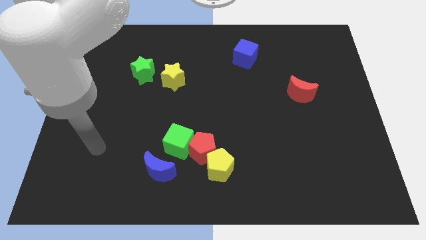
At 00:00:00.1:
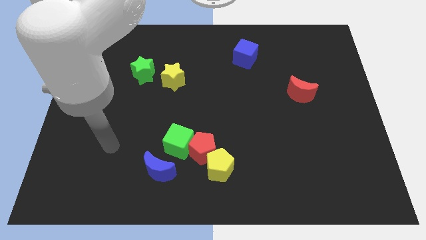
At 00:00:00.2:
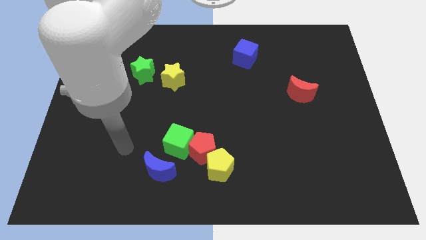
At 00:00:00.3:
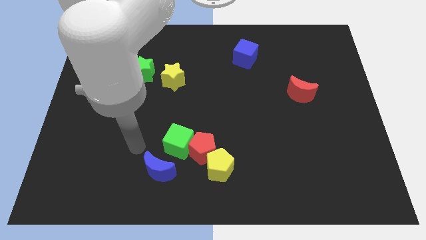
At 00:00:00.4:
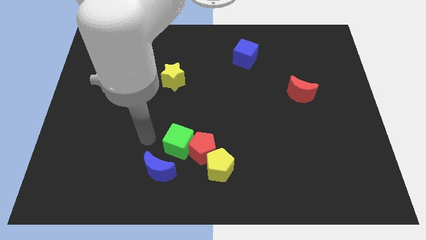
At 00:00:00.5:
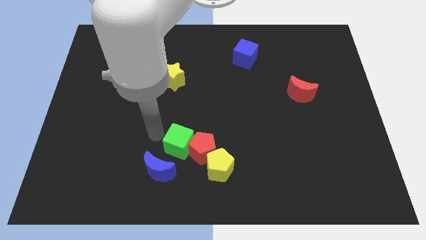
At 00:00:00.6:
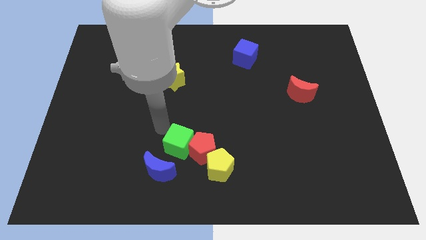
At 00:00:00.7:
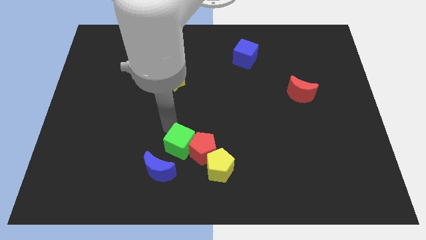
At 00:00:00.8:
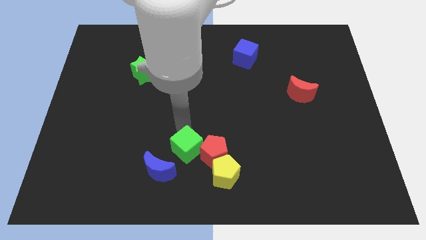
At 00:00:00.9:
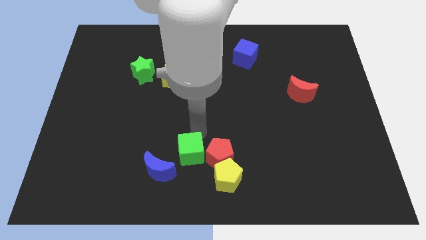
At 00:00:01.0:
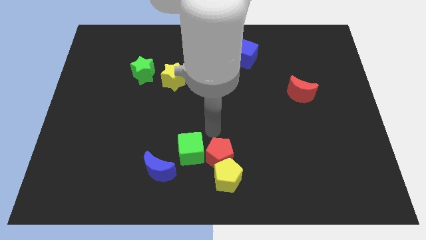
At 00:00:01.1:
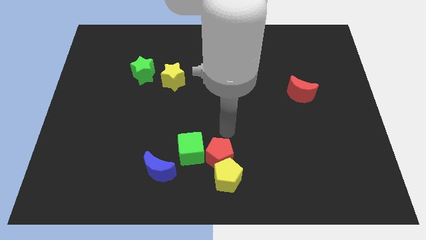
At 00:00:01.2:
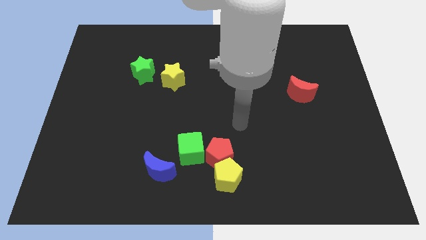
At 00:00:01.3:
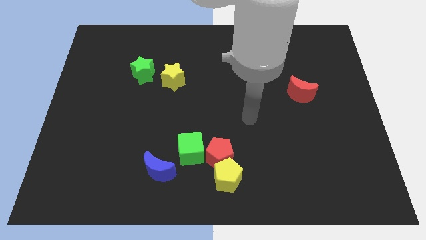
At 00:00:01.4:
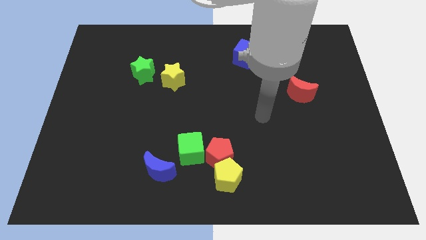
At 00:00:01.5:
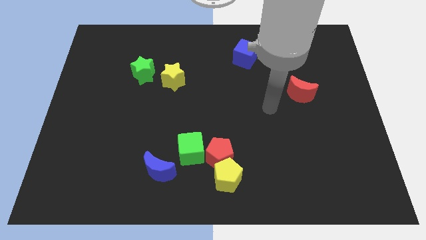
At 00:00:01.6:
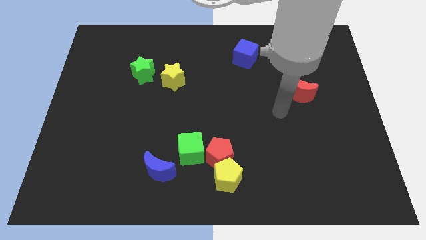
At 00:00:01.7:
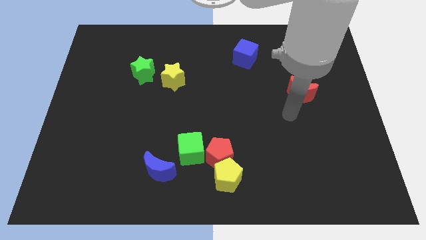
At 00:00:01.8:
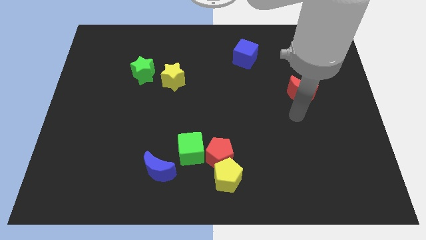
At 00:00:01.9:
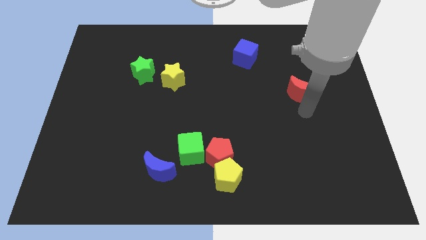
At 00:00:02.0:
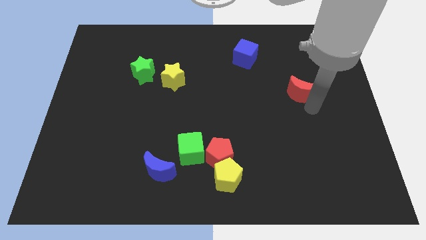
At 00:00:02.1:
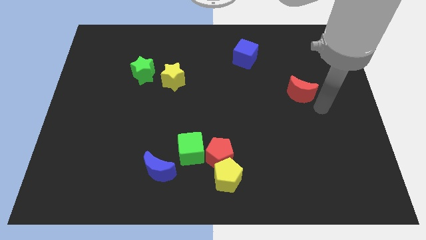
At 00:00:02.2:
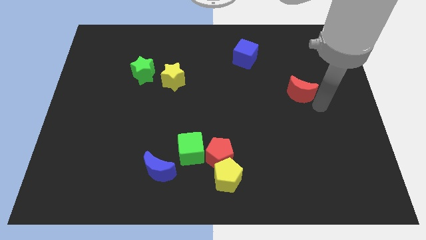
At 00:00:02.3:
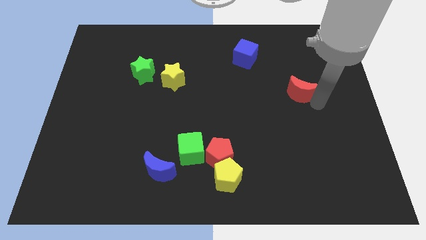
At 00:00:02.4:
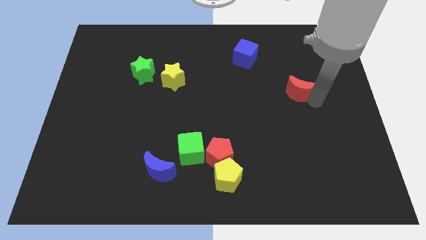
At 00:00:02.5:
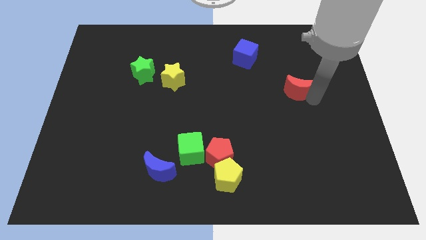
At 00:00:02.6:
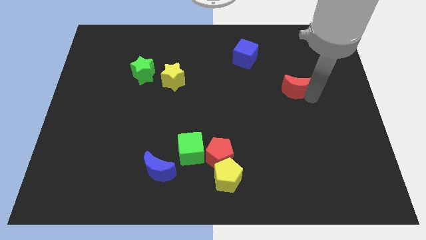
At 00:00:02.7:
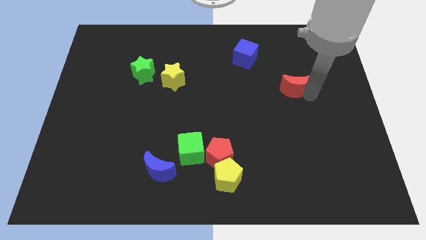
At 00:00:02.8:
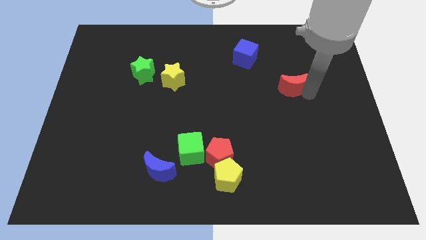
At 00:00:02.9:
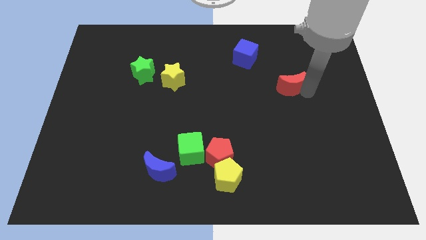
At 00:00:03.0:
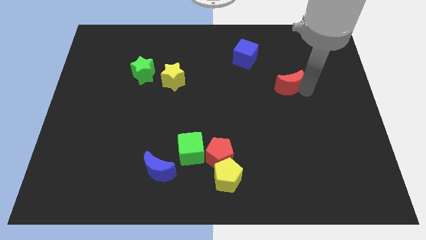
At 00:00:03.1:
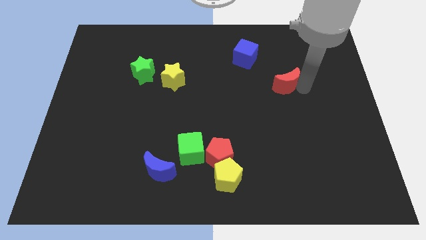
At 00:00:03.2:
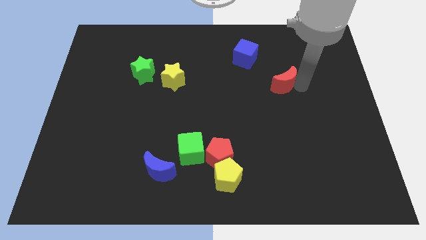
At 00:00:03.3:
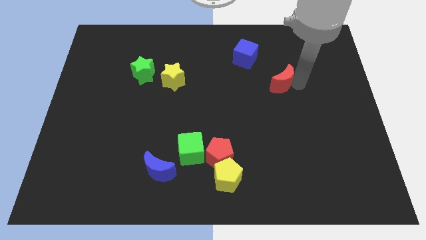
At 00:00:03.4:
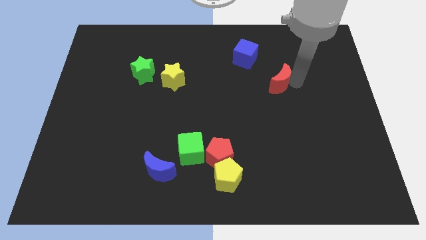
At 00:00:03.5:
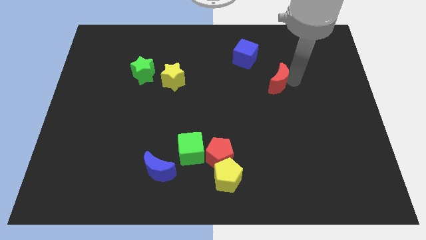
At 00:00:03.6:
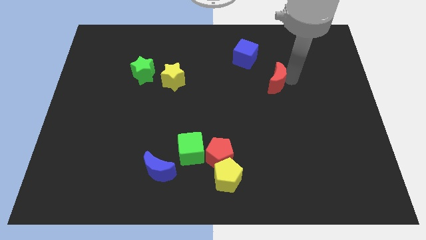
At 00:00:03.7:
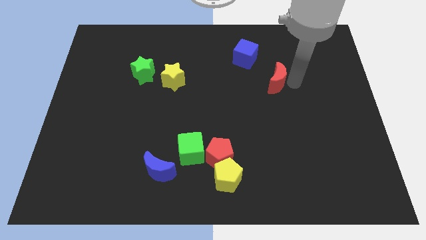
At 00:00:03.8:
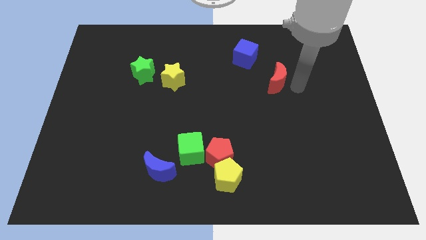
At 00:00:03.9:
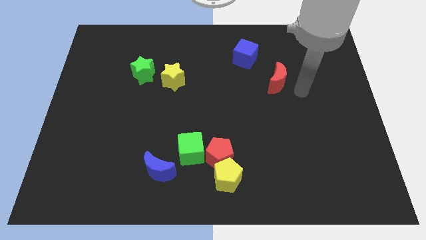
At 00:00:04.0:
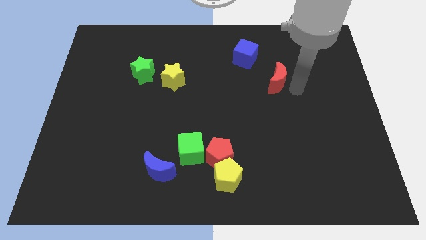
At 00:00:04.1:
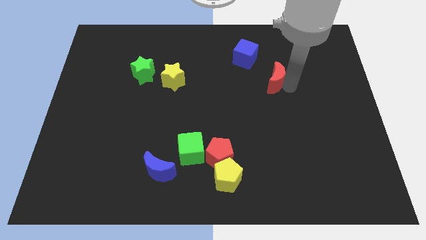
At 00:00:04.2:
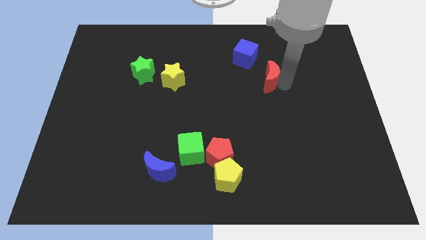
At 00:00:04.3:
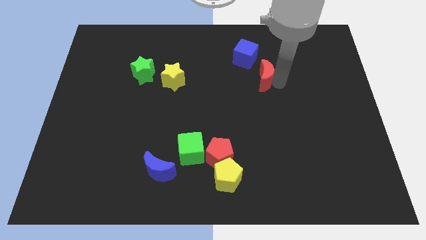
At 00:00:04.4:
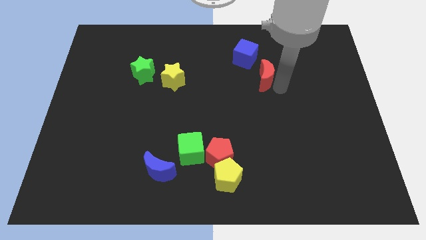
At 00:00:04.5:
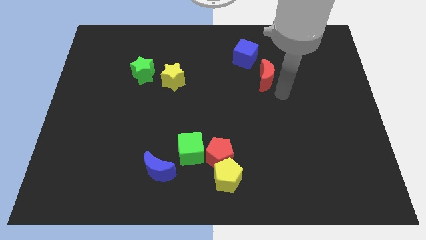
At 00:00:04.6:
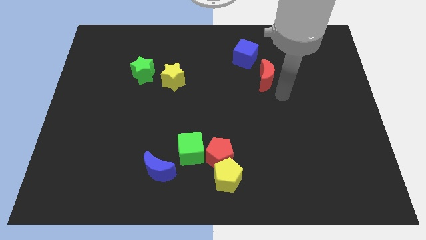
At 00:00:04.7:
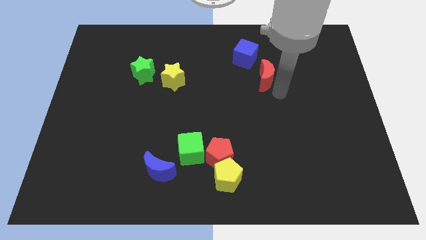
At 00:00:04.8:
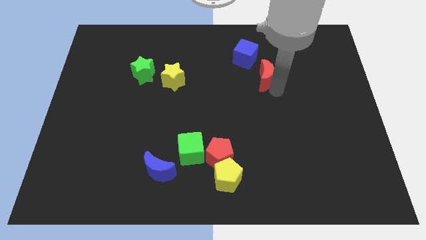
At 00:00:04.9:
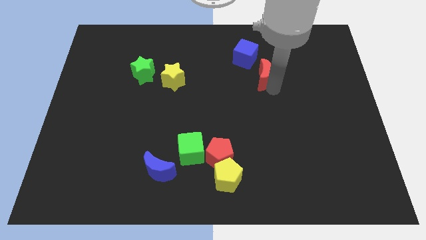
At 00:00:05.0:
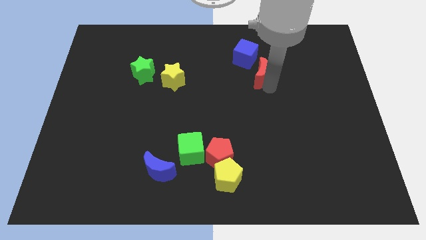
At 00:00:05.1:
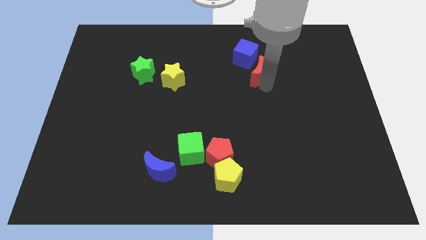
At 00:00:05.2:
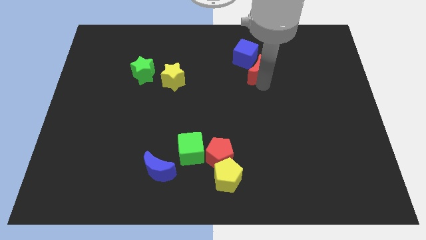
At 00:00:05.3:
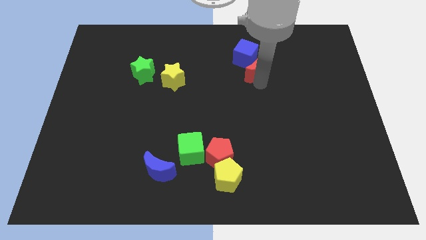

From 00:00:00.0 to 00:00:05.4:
put the red moon next to the blue cube

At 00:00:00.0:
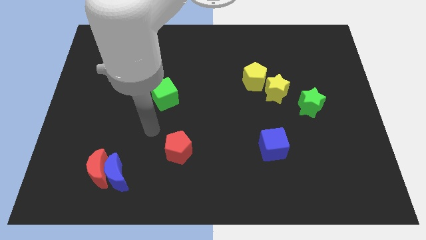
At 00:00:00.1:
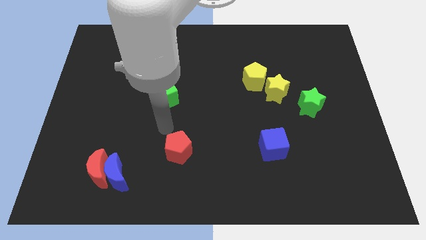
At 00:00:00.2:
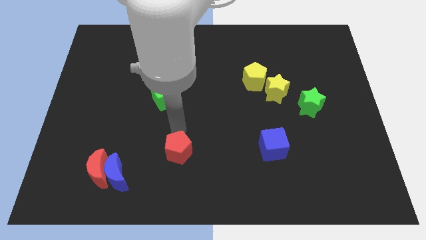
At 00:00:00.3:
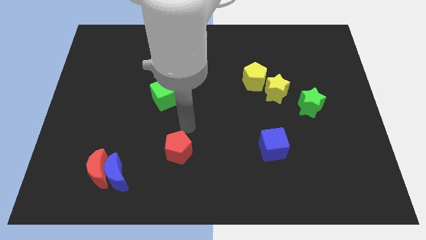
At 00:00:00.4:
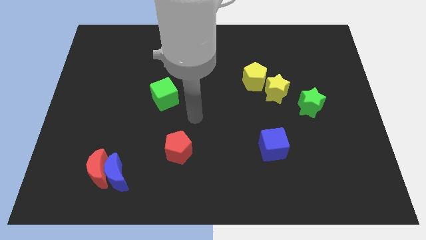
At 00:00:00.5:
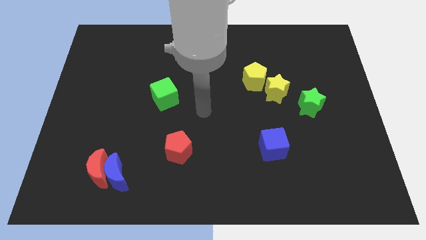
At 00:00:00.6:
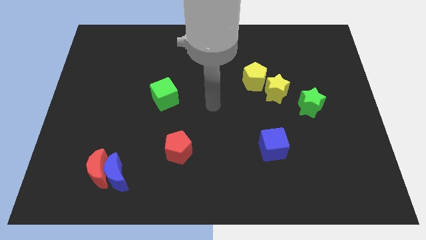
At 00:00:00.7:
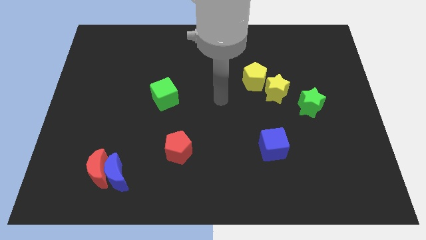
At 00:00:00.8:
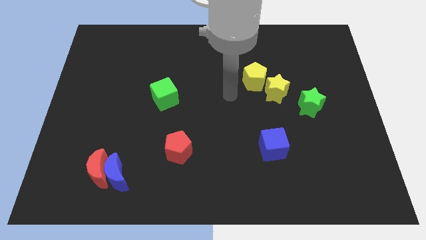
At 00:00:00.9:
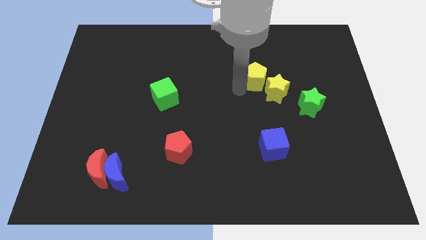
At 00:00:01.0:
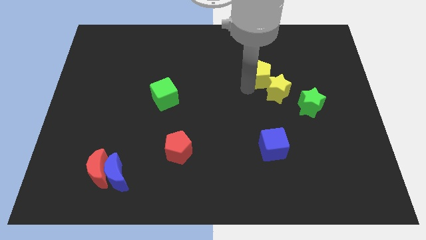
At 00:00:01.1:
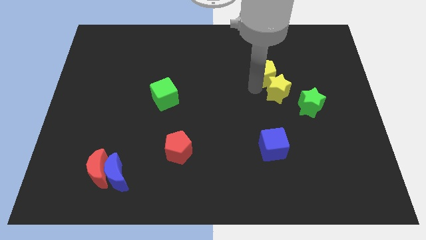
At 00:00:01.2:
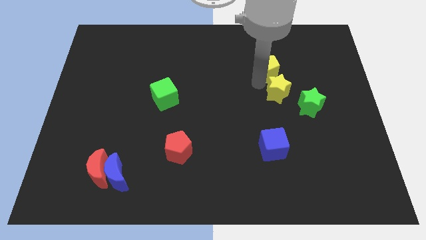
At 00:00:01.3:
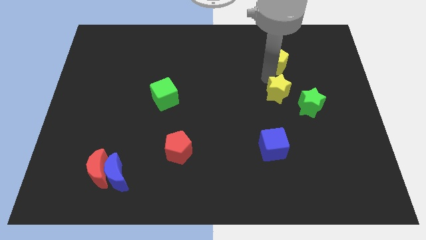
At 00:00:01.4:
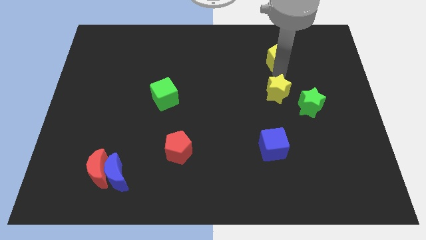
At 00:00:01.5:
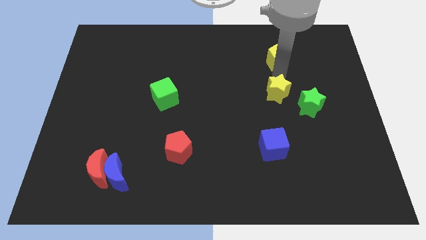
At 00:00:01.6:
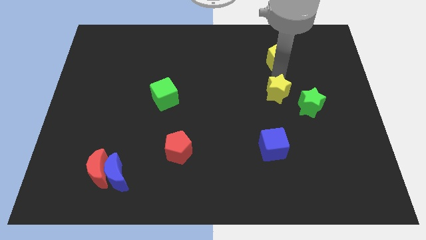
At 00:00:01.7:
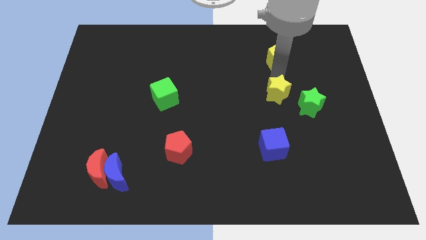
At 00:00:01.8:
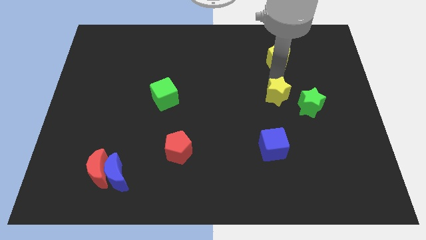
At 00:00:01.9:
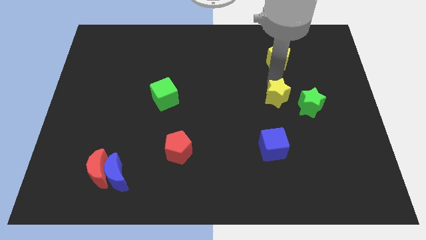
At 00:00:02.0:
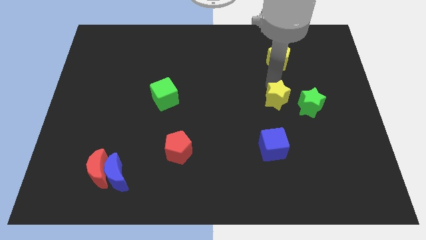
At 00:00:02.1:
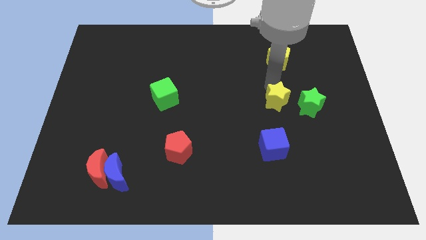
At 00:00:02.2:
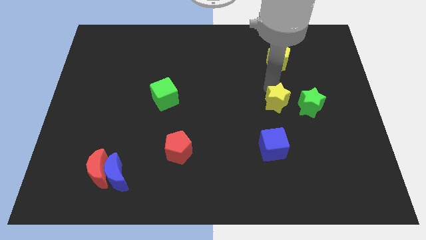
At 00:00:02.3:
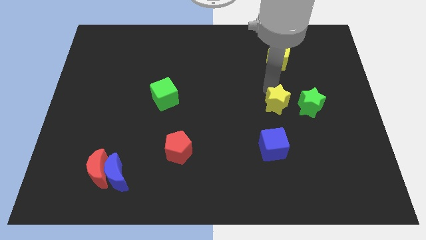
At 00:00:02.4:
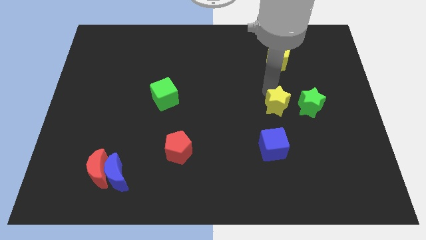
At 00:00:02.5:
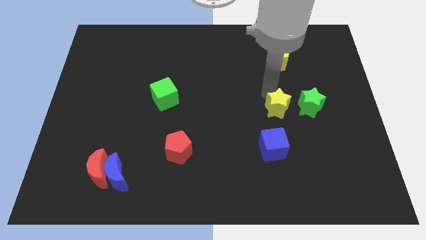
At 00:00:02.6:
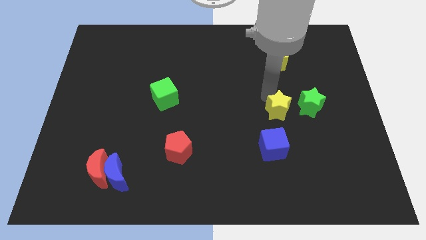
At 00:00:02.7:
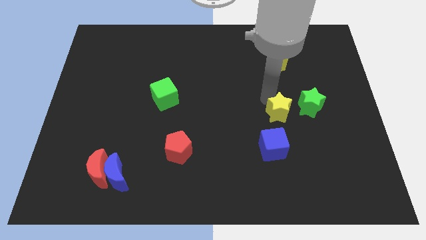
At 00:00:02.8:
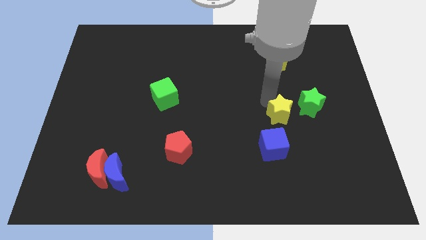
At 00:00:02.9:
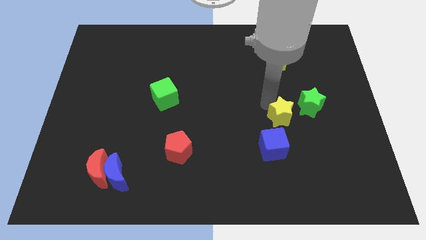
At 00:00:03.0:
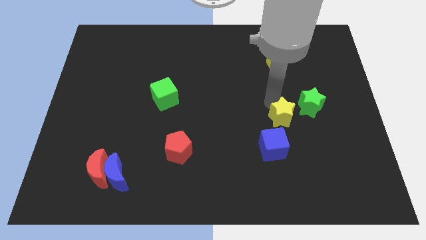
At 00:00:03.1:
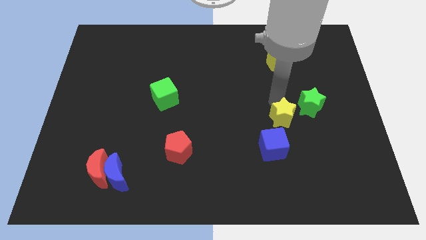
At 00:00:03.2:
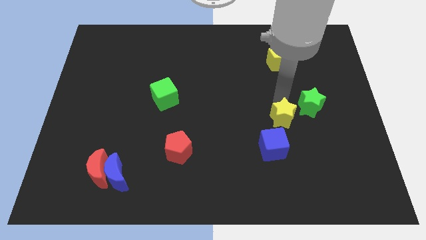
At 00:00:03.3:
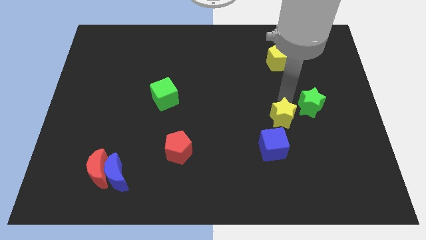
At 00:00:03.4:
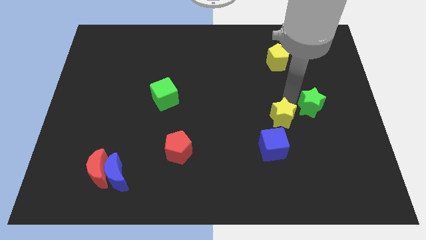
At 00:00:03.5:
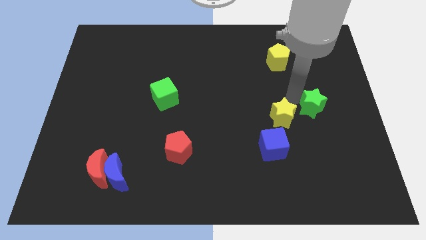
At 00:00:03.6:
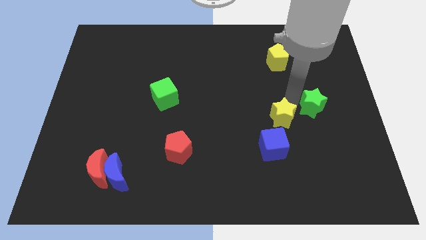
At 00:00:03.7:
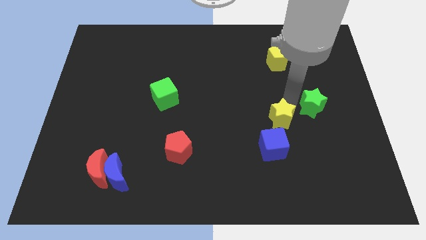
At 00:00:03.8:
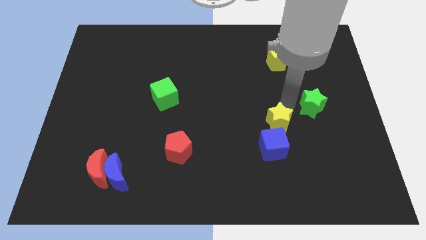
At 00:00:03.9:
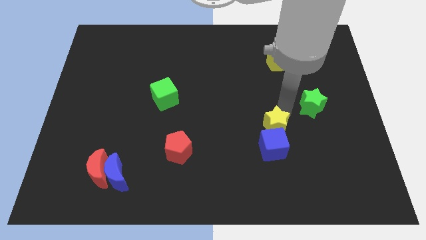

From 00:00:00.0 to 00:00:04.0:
slide the yellow star towards the blue cube
